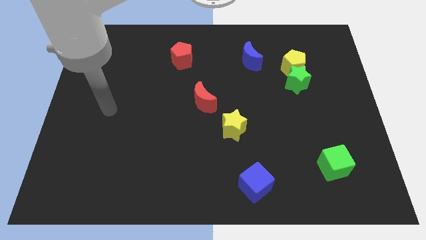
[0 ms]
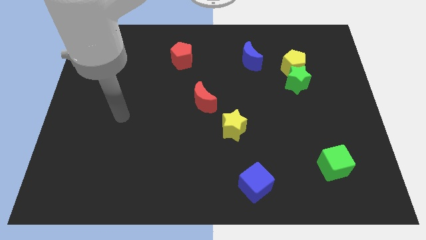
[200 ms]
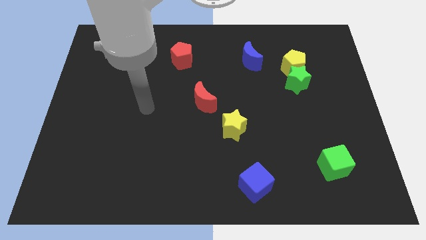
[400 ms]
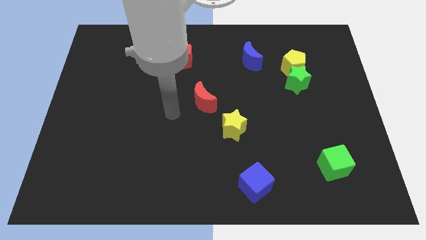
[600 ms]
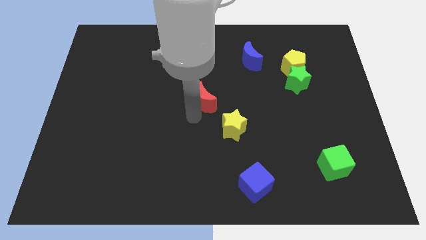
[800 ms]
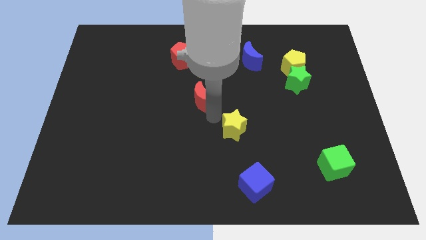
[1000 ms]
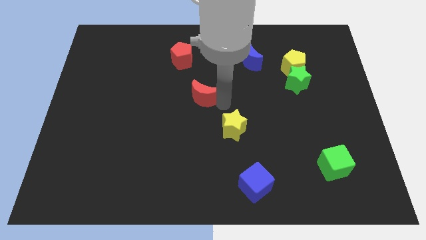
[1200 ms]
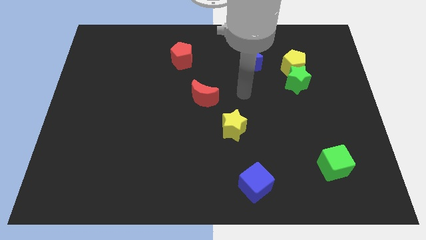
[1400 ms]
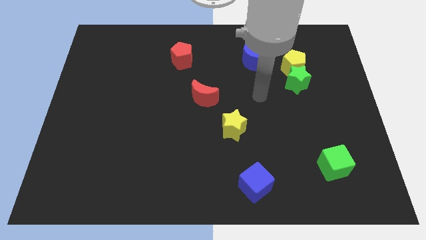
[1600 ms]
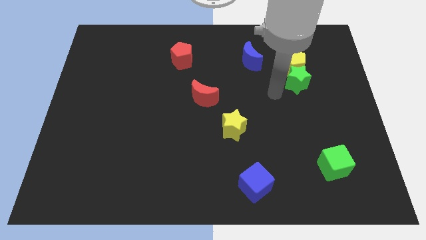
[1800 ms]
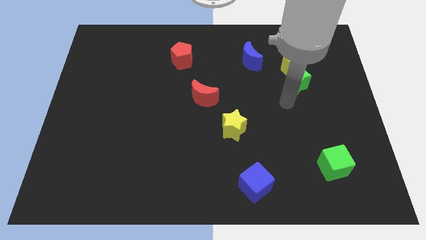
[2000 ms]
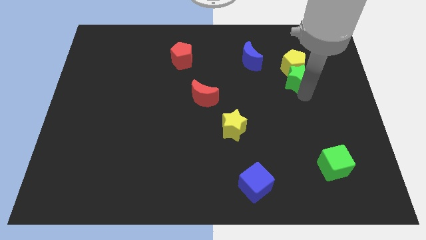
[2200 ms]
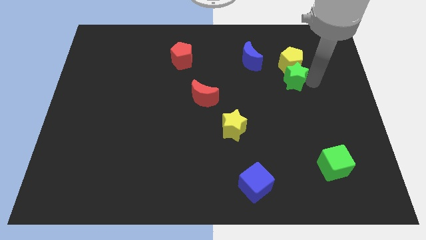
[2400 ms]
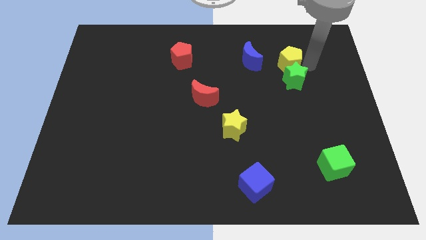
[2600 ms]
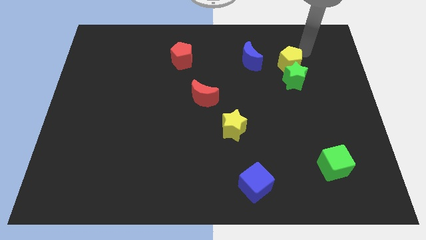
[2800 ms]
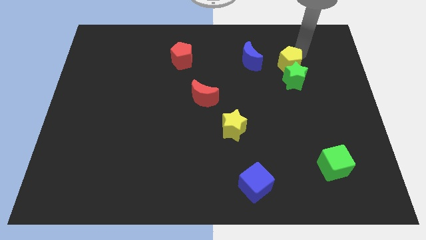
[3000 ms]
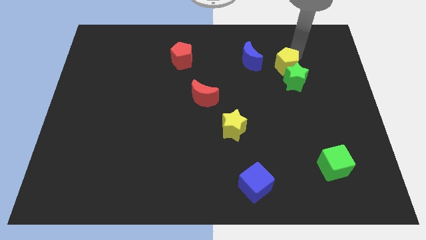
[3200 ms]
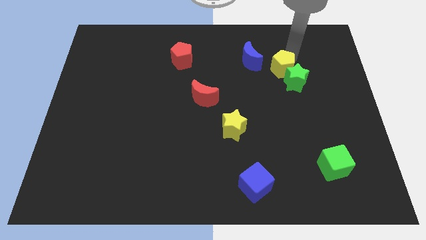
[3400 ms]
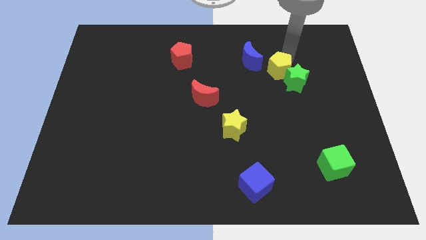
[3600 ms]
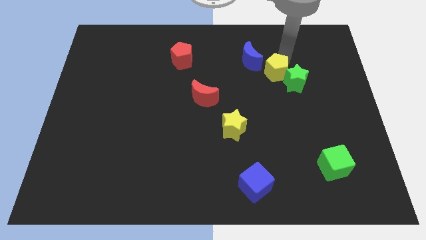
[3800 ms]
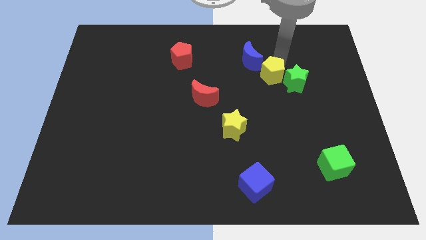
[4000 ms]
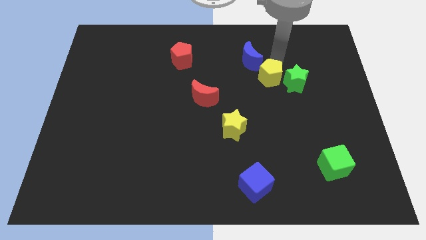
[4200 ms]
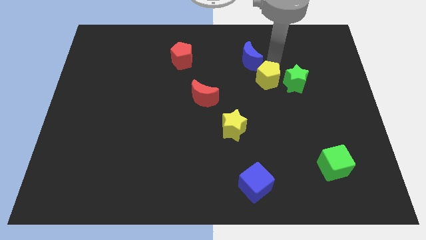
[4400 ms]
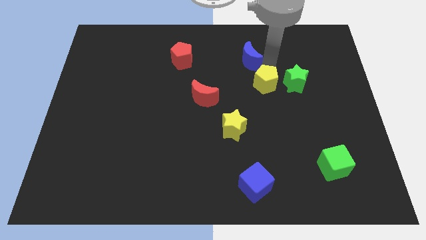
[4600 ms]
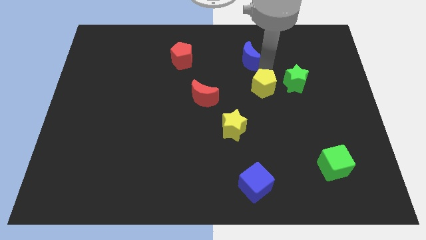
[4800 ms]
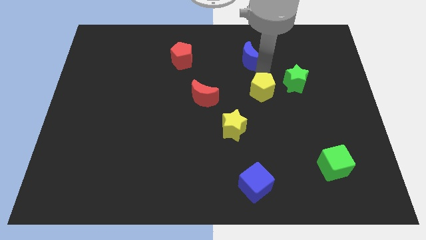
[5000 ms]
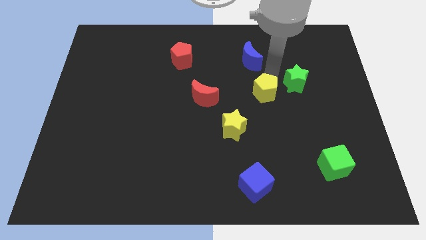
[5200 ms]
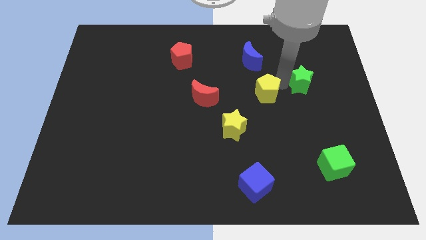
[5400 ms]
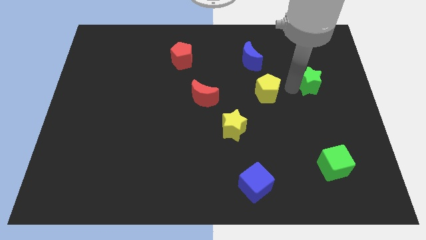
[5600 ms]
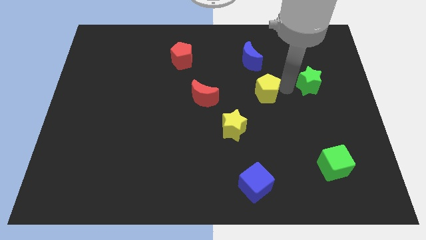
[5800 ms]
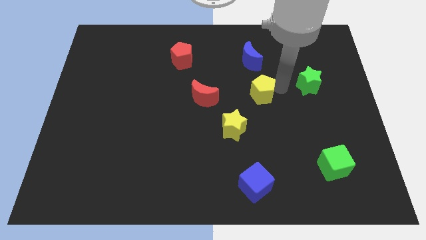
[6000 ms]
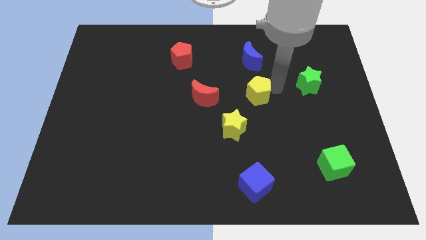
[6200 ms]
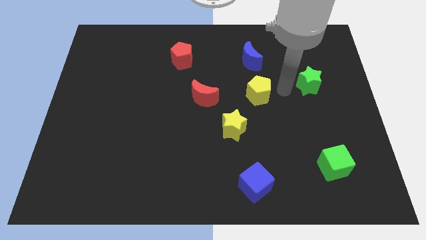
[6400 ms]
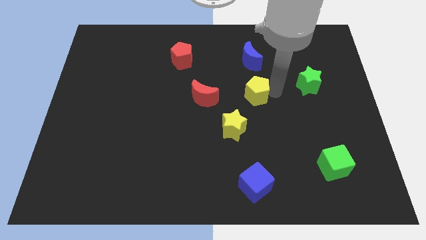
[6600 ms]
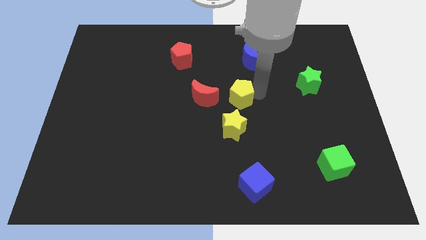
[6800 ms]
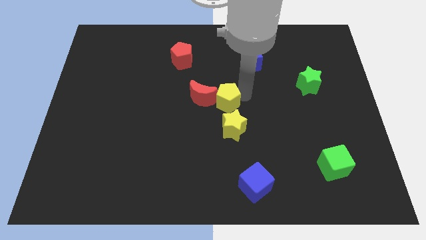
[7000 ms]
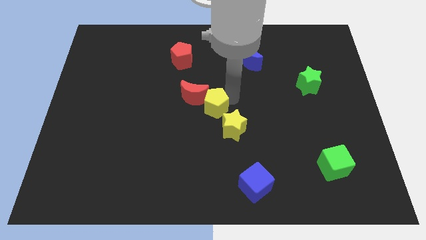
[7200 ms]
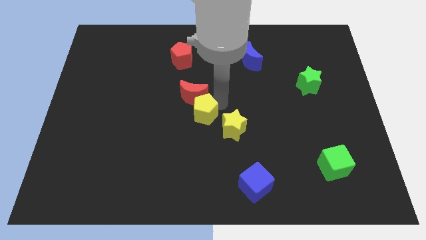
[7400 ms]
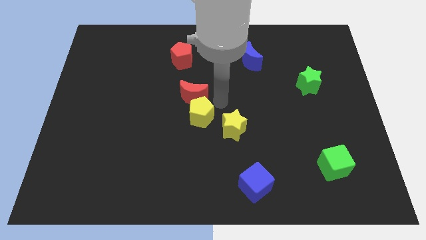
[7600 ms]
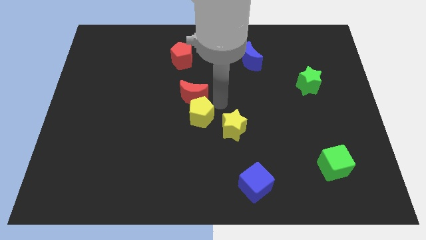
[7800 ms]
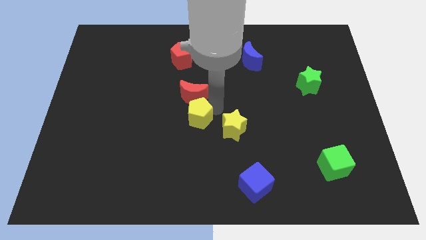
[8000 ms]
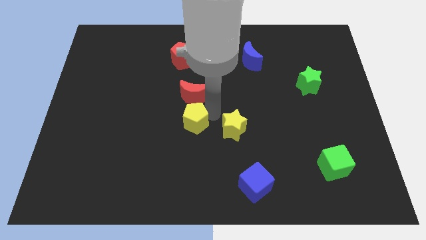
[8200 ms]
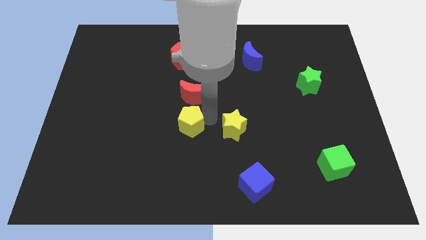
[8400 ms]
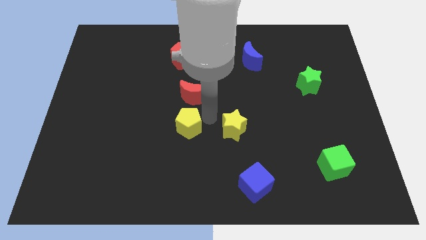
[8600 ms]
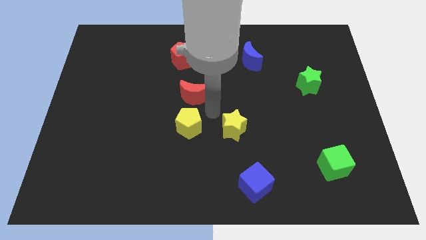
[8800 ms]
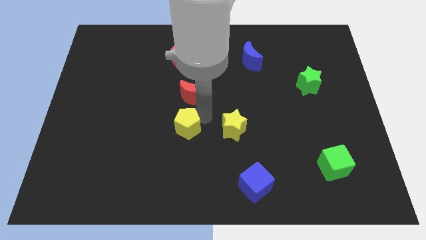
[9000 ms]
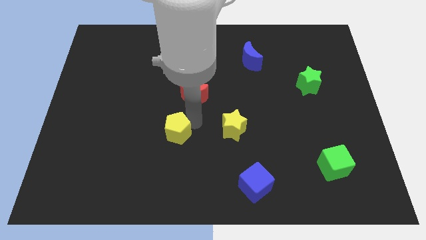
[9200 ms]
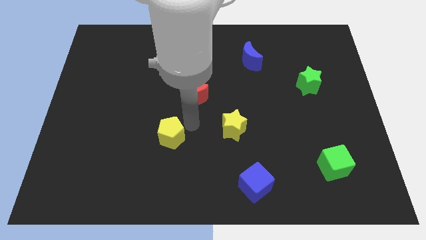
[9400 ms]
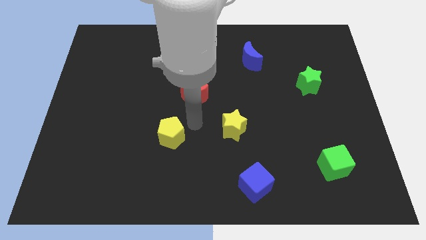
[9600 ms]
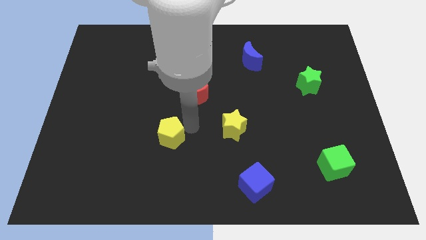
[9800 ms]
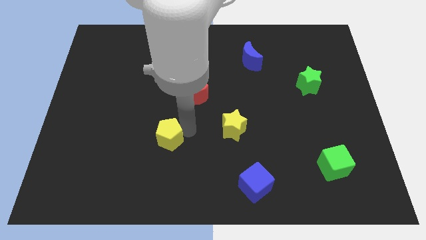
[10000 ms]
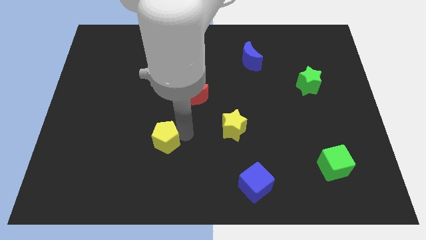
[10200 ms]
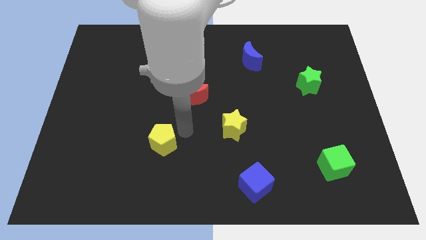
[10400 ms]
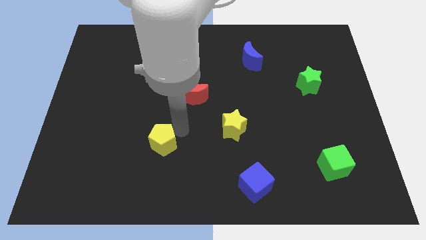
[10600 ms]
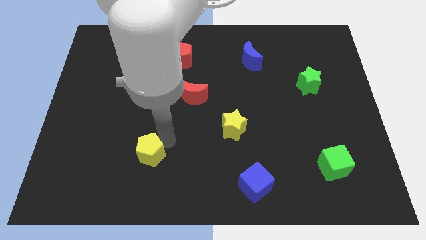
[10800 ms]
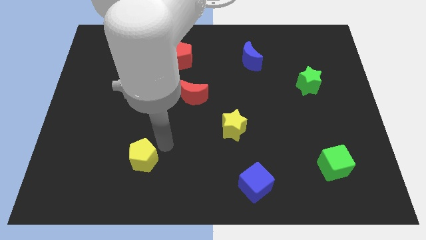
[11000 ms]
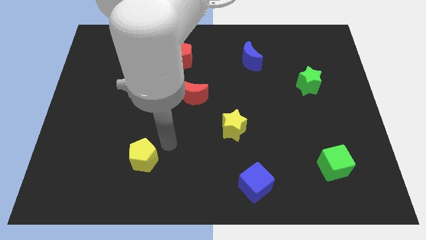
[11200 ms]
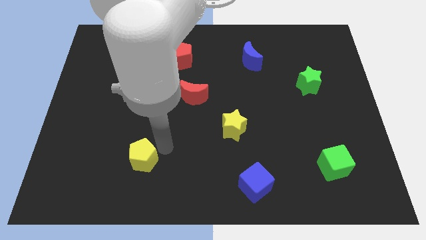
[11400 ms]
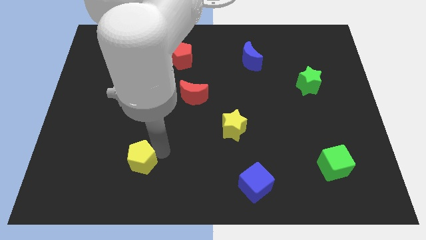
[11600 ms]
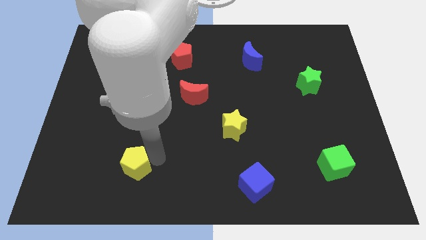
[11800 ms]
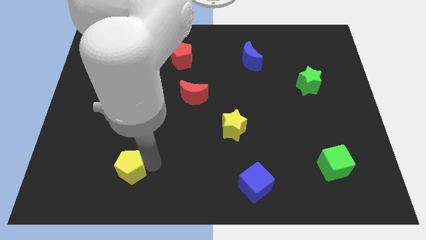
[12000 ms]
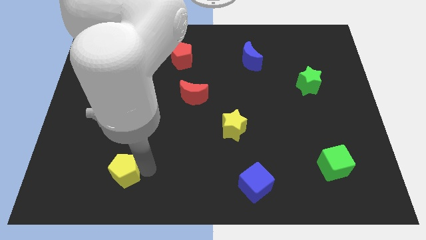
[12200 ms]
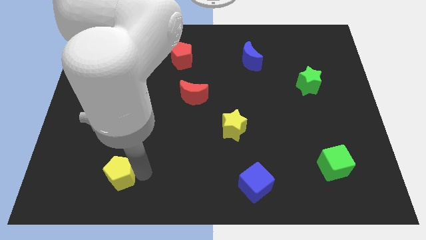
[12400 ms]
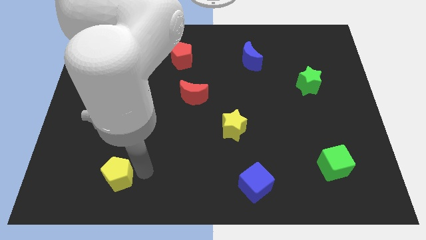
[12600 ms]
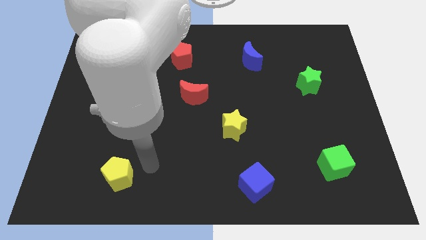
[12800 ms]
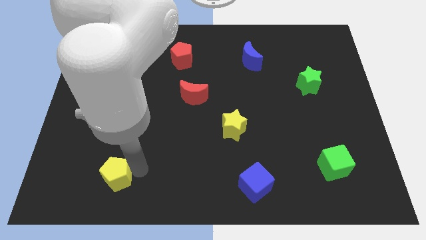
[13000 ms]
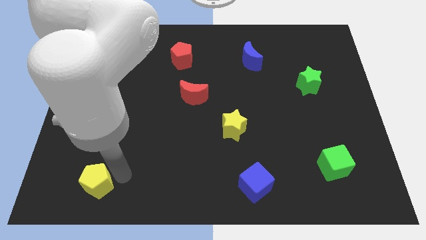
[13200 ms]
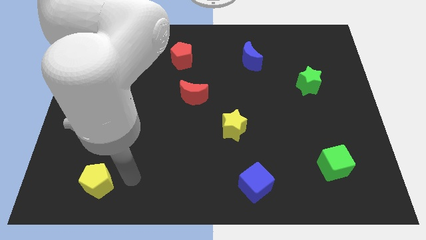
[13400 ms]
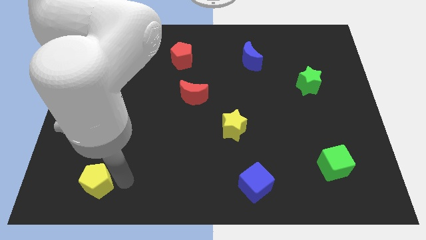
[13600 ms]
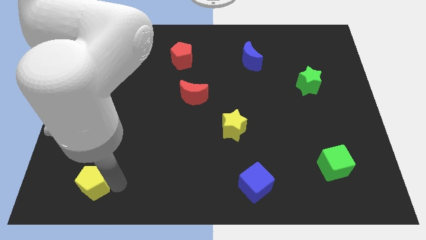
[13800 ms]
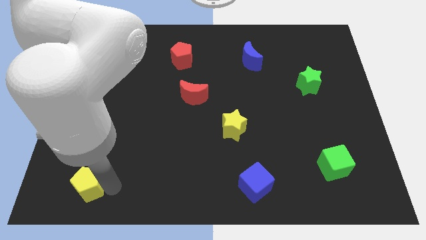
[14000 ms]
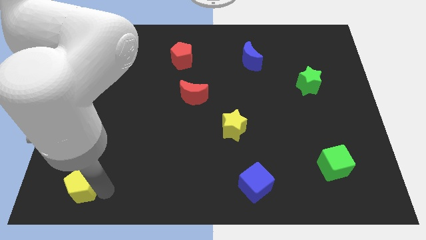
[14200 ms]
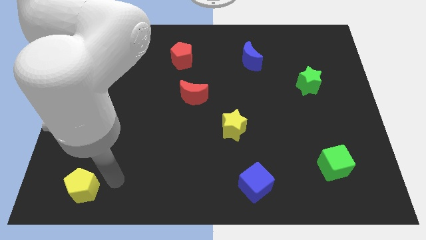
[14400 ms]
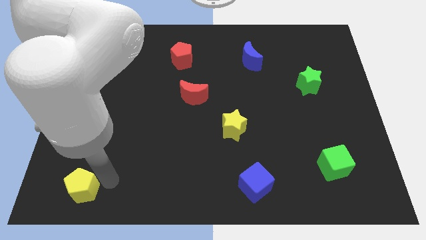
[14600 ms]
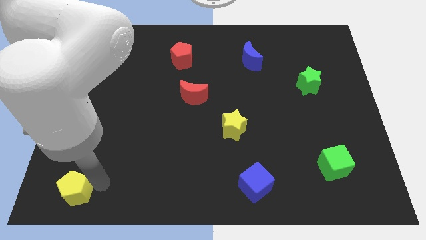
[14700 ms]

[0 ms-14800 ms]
slide the yellow pentagon to the lower left corner
